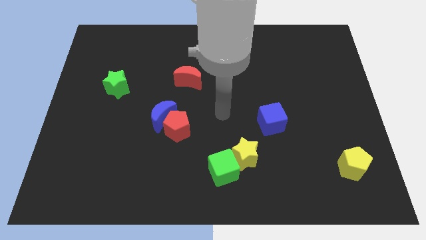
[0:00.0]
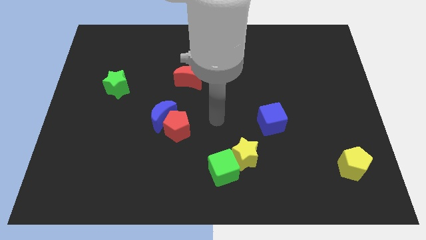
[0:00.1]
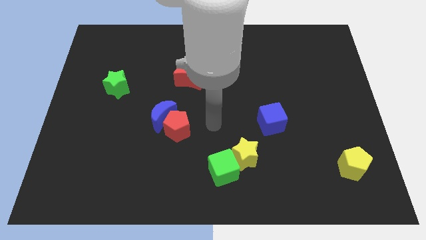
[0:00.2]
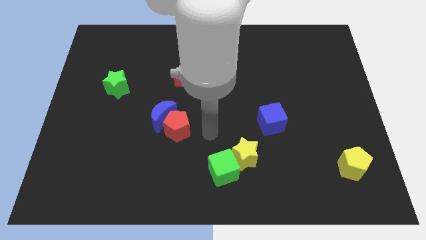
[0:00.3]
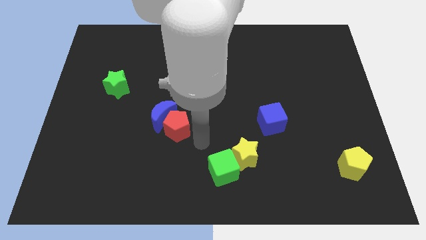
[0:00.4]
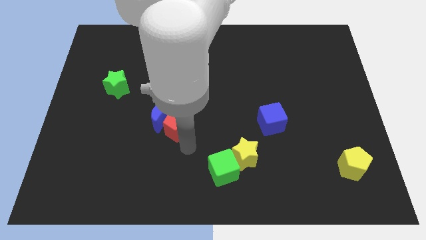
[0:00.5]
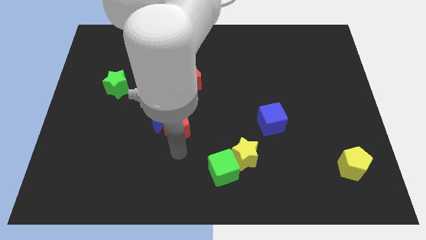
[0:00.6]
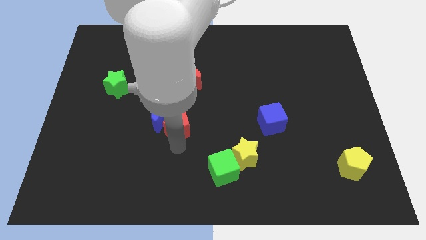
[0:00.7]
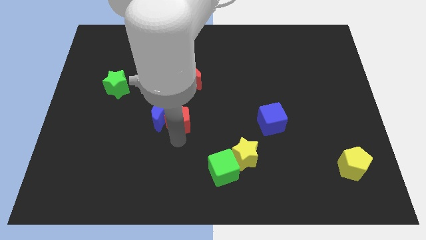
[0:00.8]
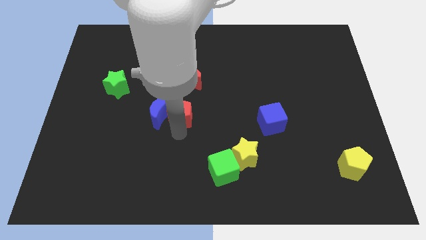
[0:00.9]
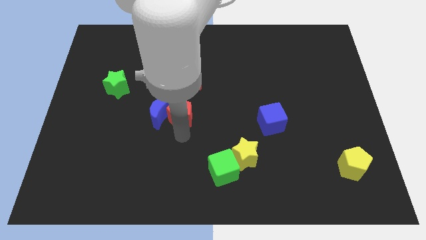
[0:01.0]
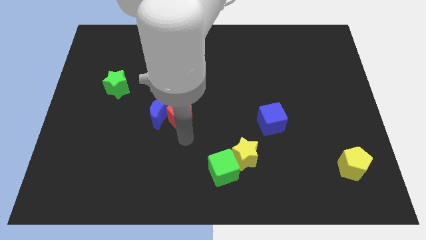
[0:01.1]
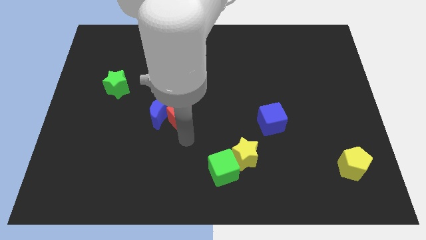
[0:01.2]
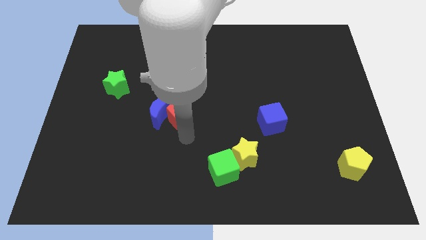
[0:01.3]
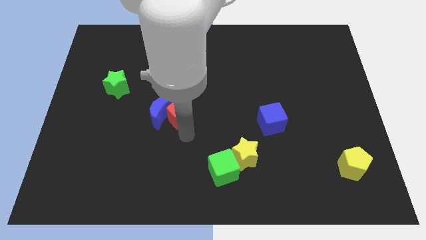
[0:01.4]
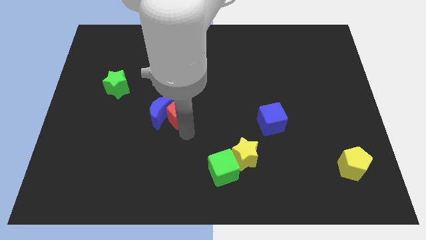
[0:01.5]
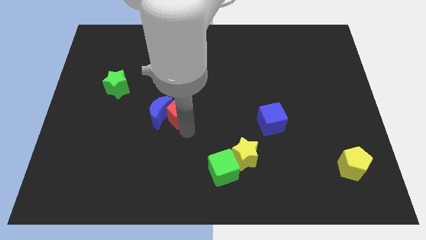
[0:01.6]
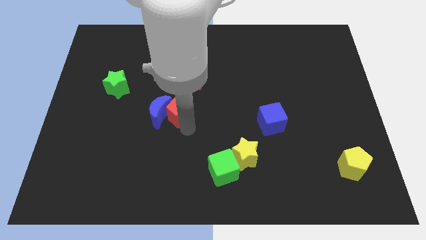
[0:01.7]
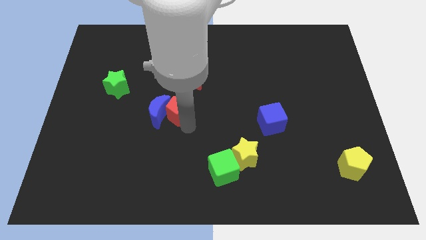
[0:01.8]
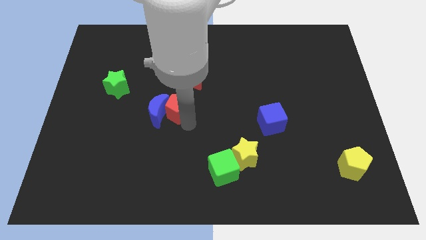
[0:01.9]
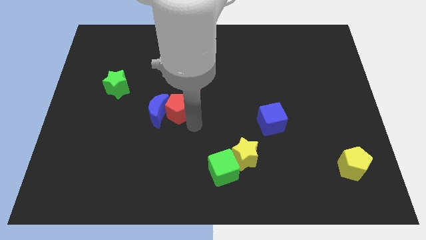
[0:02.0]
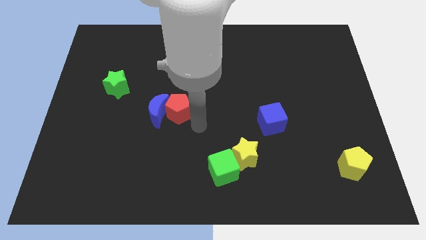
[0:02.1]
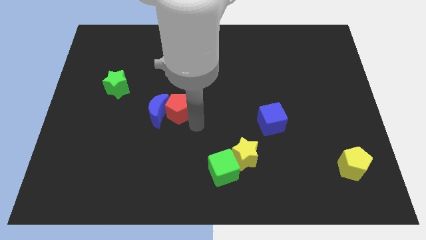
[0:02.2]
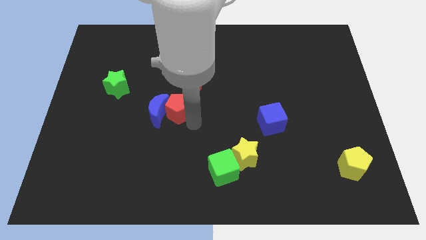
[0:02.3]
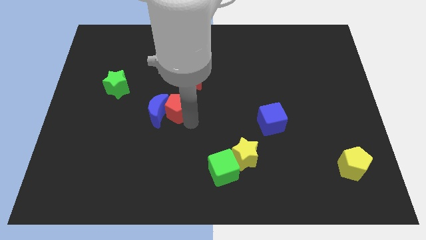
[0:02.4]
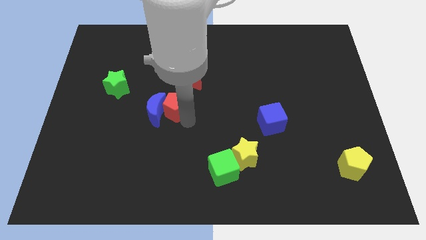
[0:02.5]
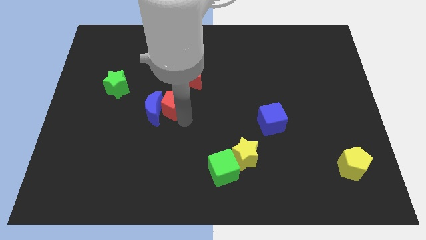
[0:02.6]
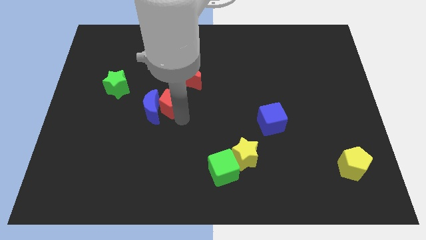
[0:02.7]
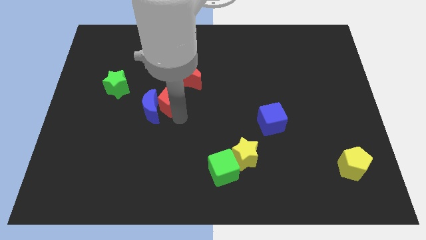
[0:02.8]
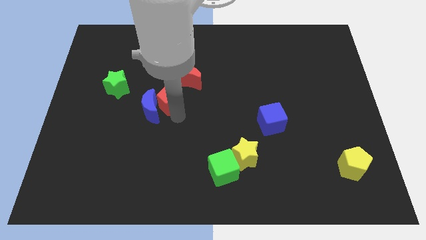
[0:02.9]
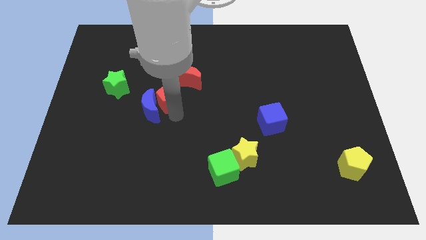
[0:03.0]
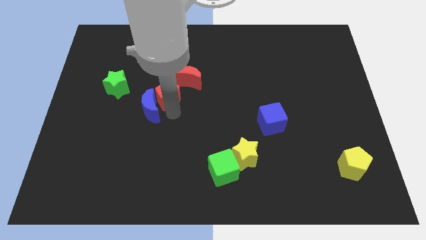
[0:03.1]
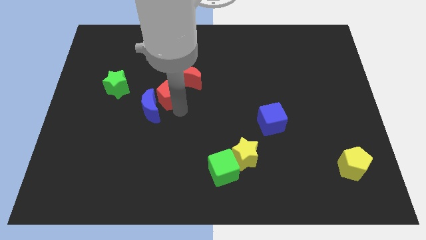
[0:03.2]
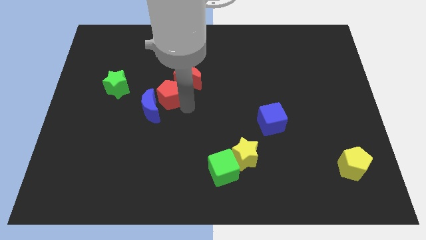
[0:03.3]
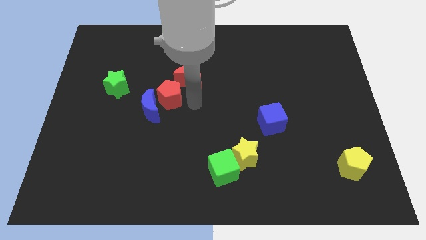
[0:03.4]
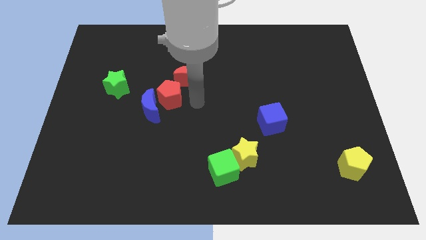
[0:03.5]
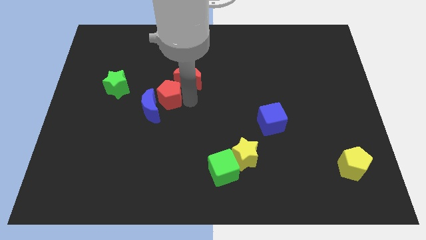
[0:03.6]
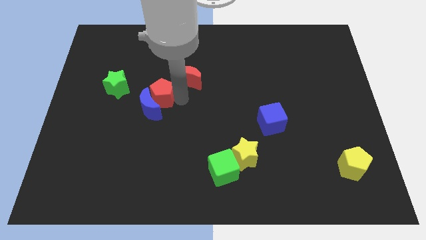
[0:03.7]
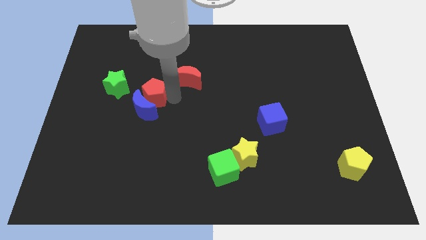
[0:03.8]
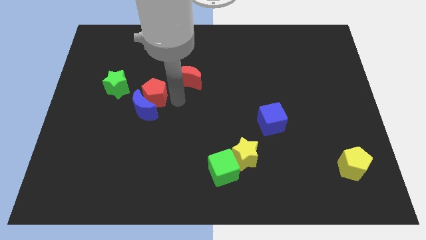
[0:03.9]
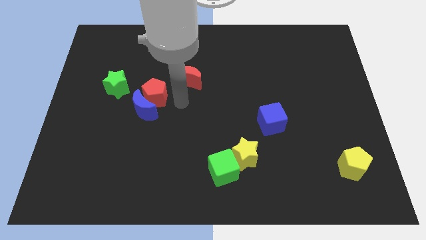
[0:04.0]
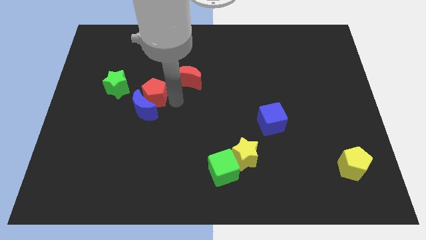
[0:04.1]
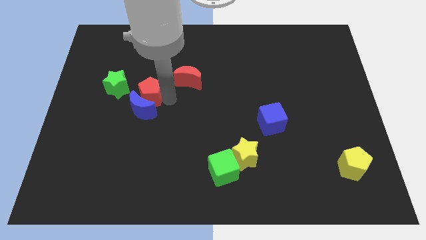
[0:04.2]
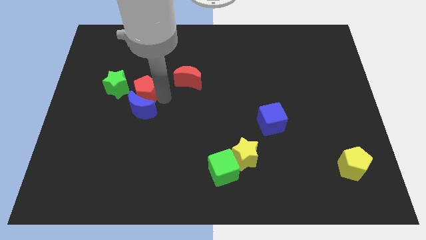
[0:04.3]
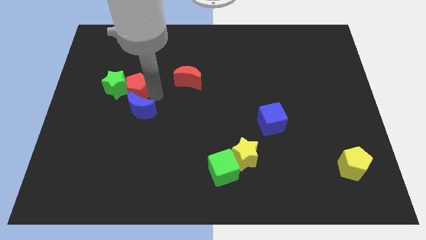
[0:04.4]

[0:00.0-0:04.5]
push the red pentagon close to the green star

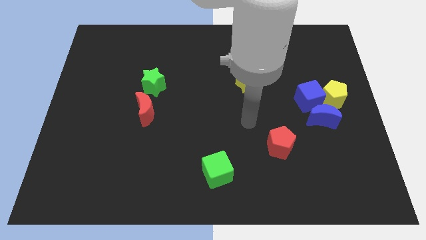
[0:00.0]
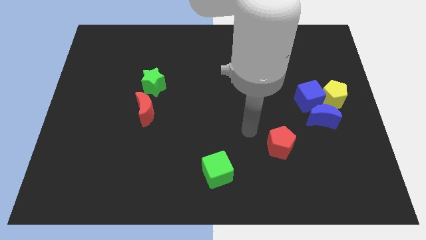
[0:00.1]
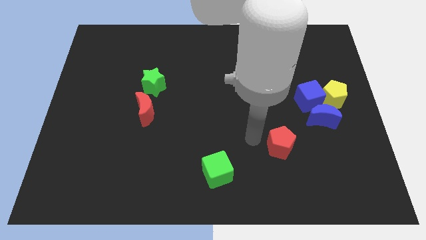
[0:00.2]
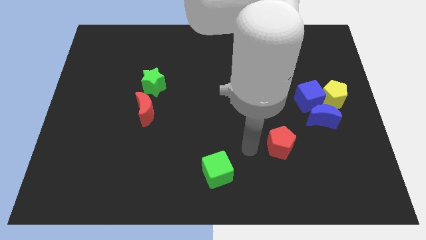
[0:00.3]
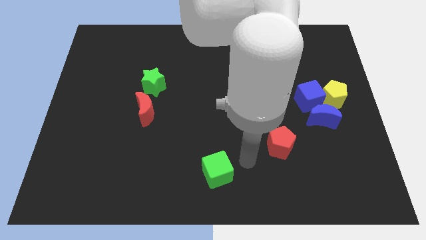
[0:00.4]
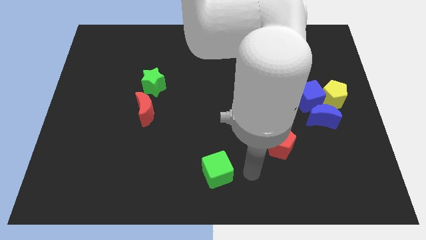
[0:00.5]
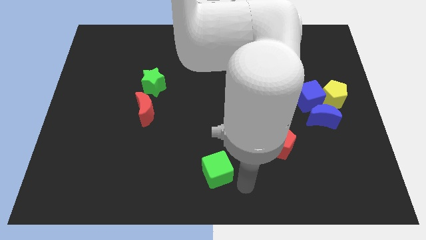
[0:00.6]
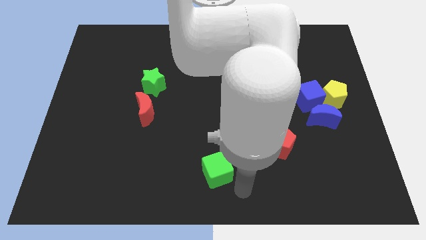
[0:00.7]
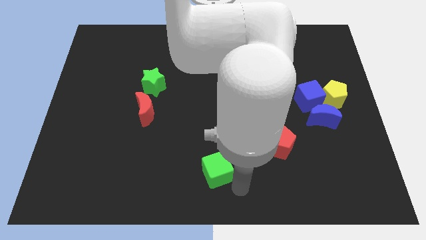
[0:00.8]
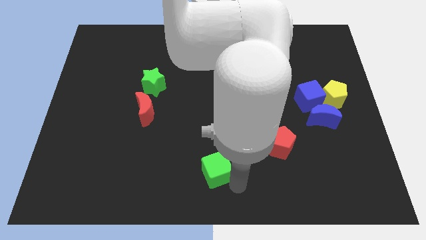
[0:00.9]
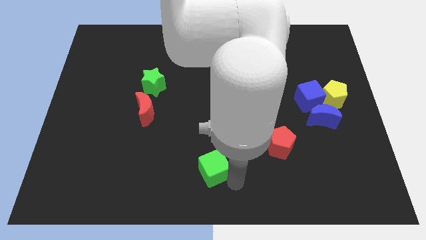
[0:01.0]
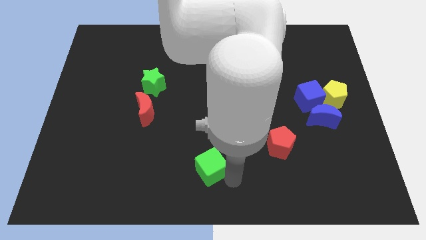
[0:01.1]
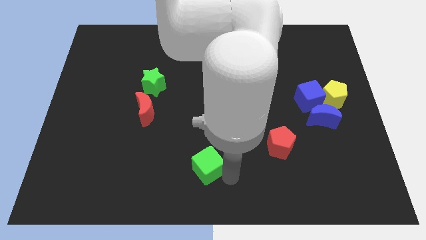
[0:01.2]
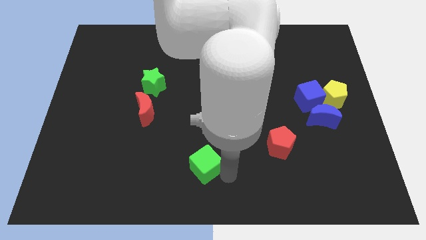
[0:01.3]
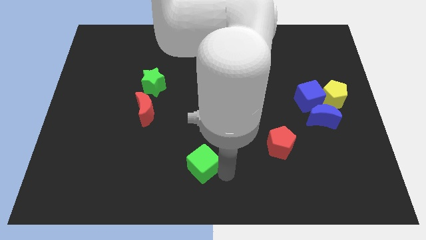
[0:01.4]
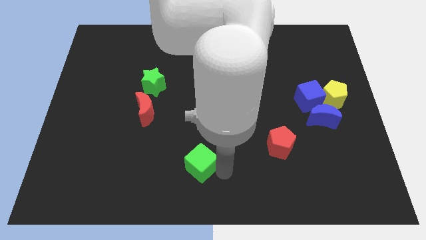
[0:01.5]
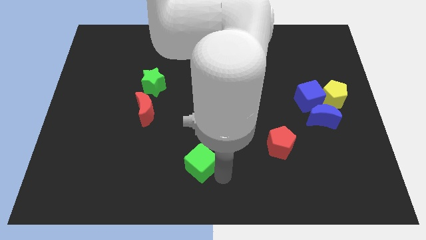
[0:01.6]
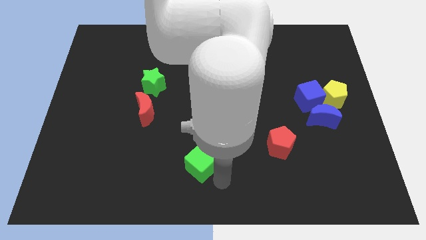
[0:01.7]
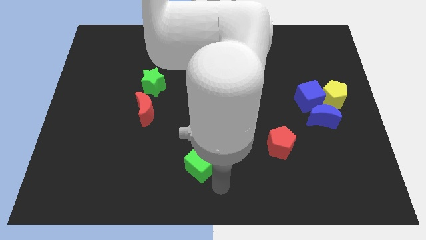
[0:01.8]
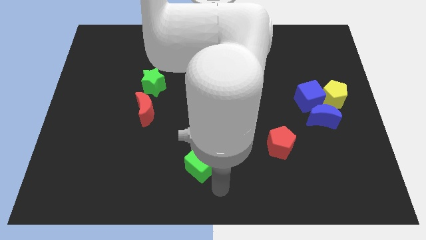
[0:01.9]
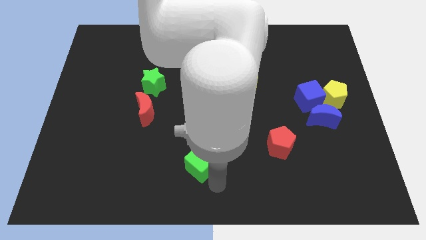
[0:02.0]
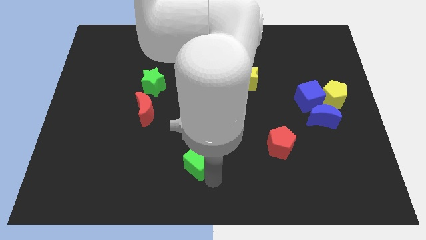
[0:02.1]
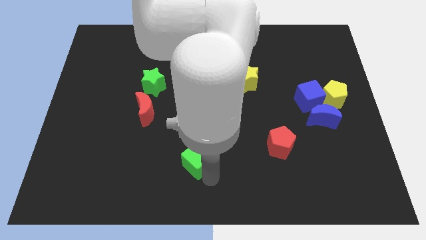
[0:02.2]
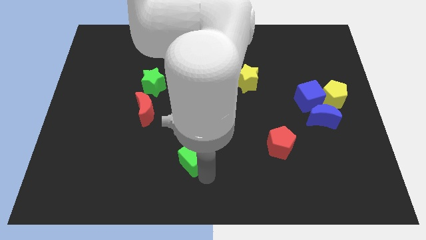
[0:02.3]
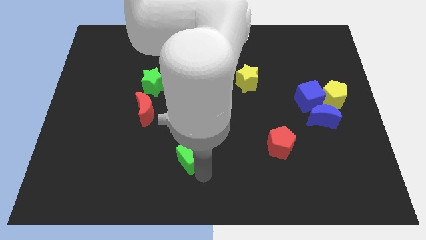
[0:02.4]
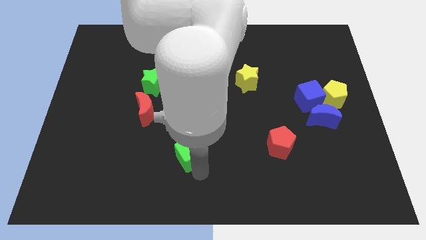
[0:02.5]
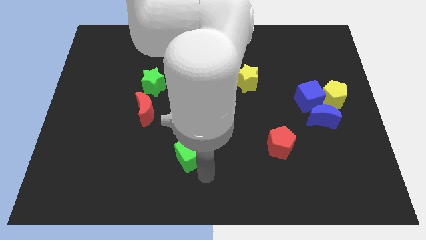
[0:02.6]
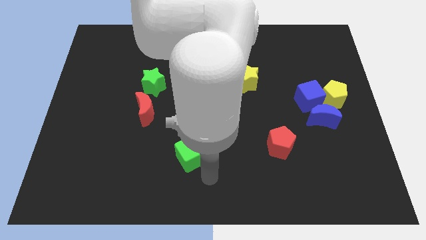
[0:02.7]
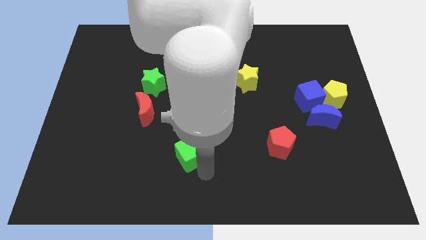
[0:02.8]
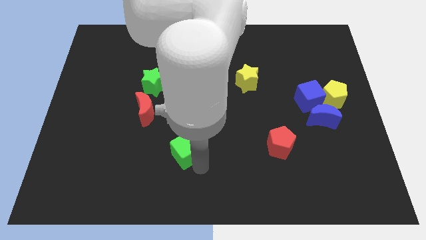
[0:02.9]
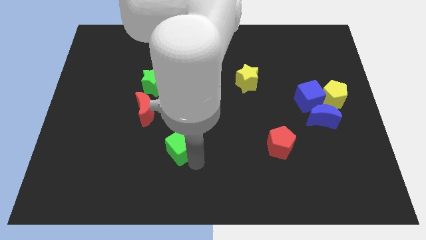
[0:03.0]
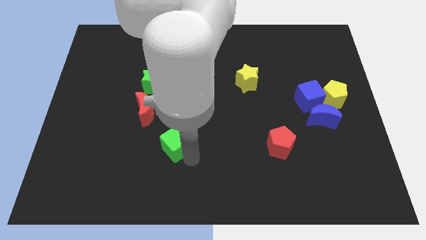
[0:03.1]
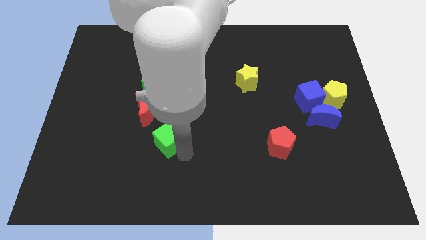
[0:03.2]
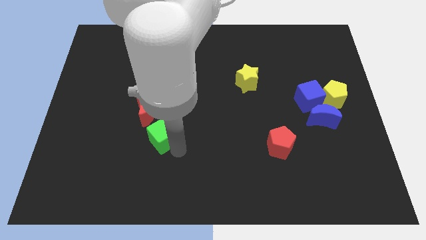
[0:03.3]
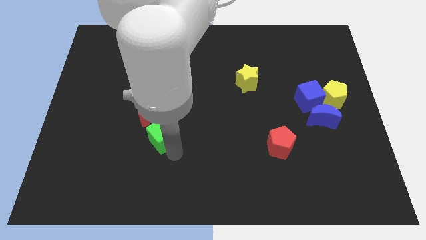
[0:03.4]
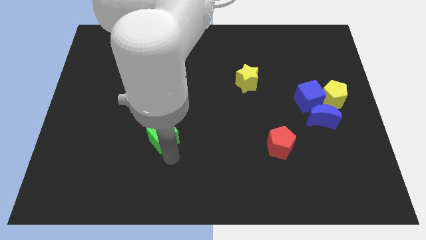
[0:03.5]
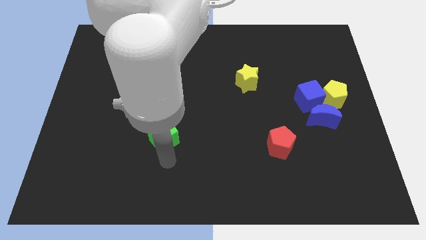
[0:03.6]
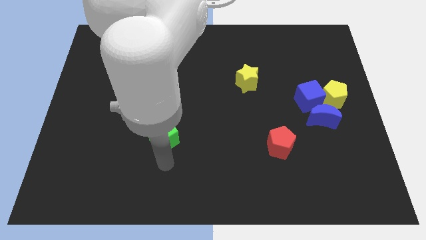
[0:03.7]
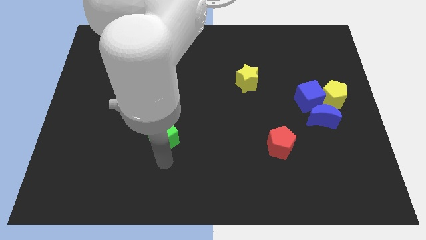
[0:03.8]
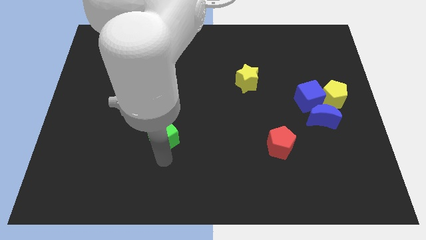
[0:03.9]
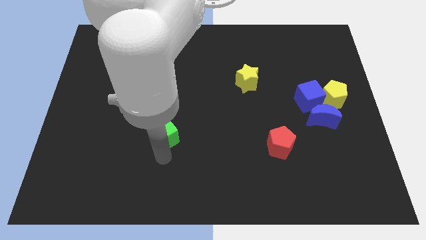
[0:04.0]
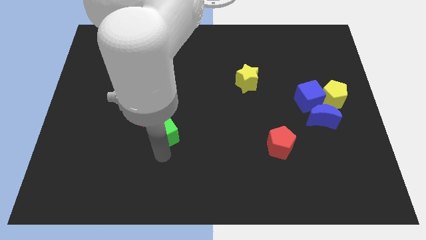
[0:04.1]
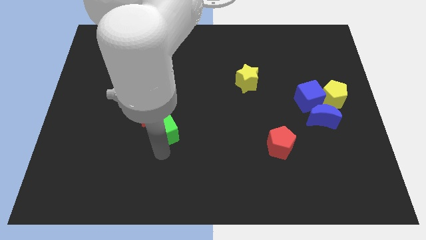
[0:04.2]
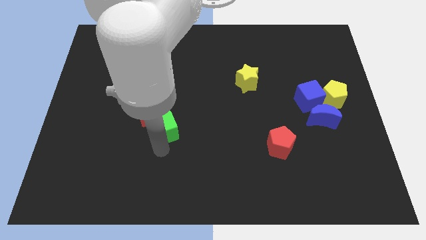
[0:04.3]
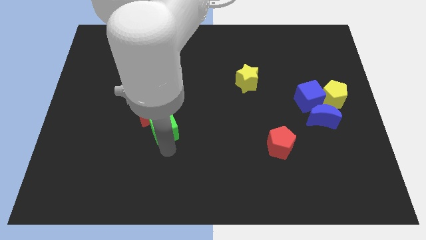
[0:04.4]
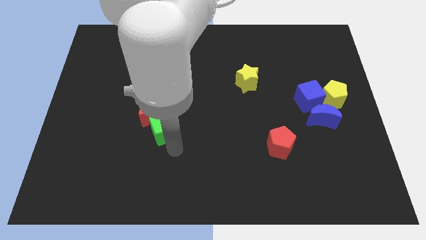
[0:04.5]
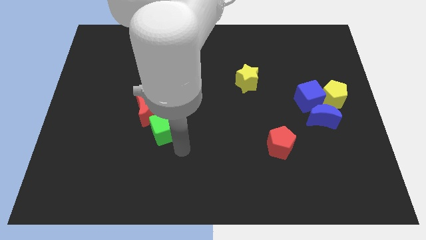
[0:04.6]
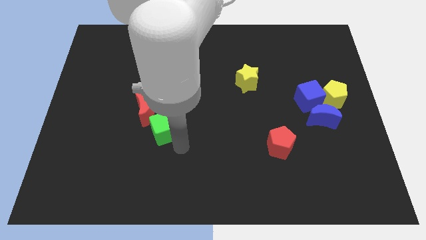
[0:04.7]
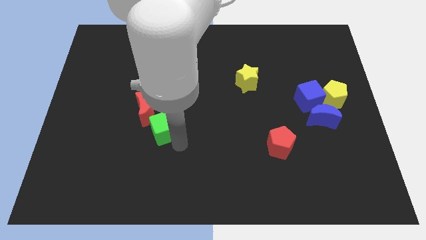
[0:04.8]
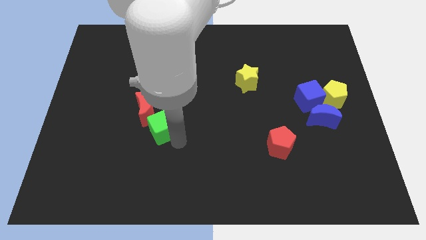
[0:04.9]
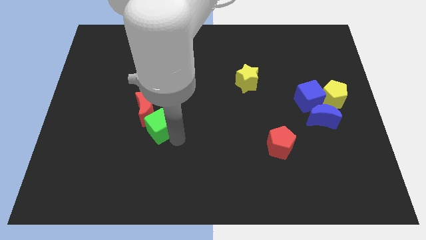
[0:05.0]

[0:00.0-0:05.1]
move the green cube towards the red moon
